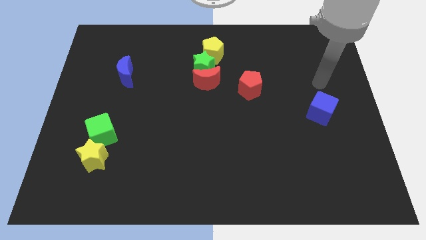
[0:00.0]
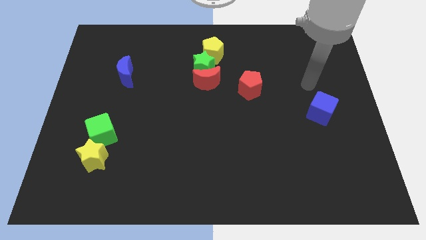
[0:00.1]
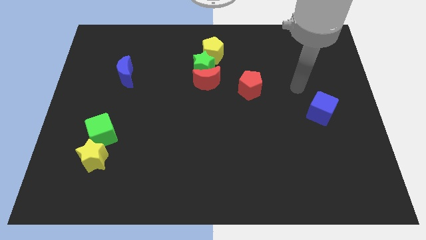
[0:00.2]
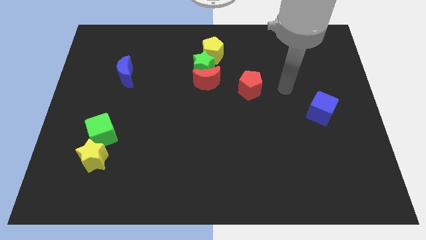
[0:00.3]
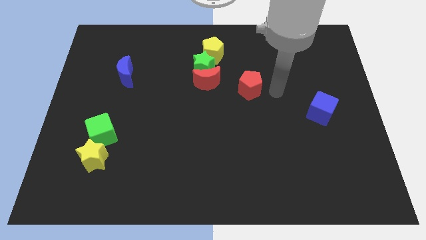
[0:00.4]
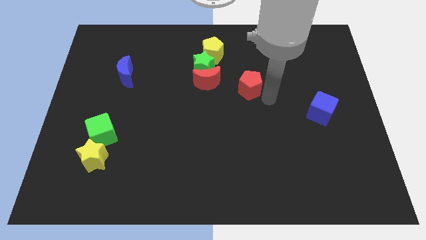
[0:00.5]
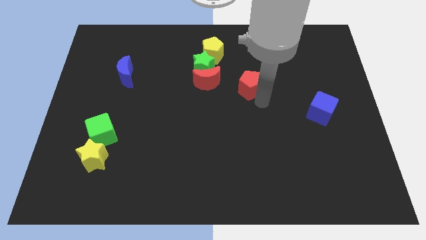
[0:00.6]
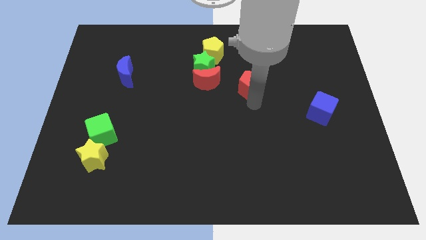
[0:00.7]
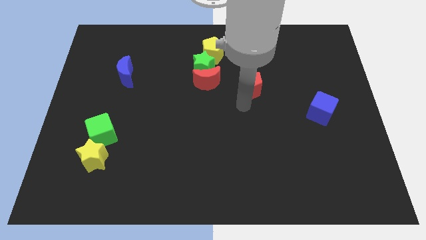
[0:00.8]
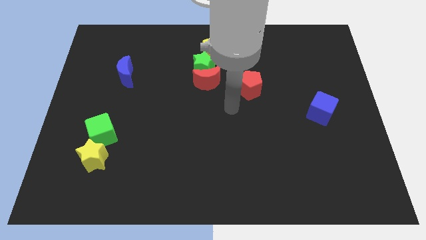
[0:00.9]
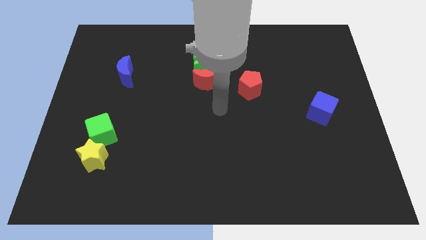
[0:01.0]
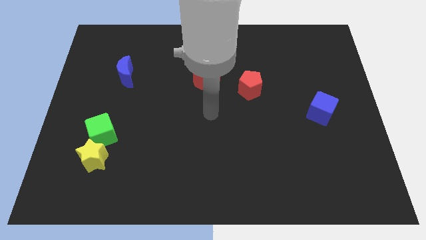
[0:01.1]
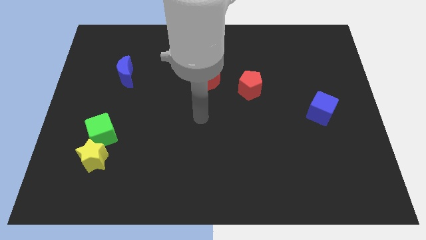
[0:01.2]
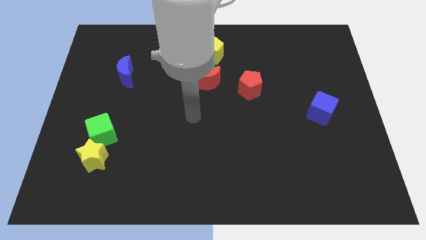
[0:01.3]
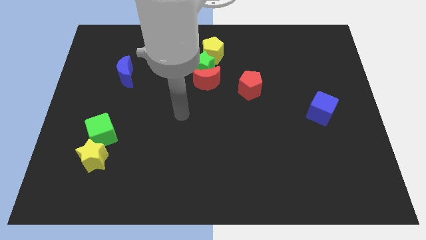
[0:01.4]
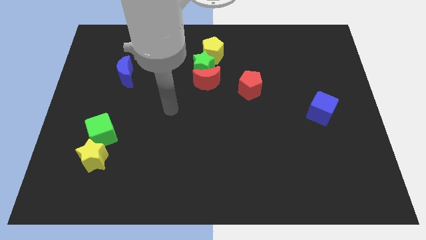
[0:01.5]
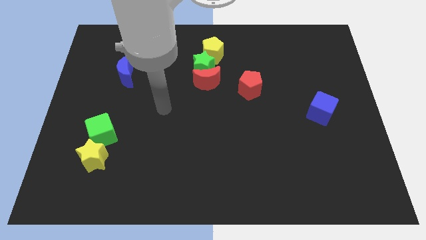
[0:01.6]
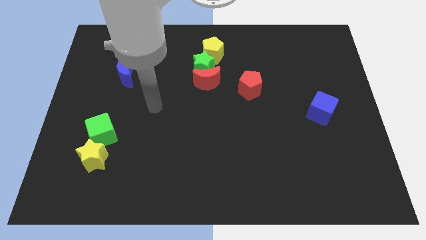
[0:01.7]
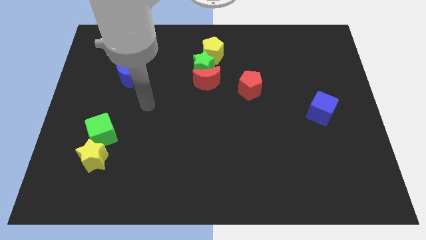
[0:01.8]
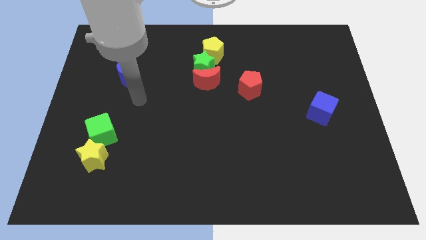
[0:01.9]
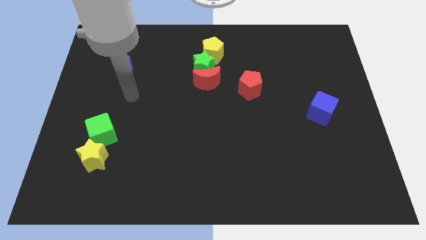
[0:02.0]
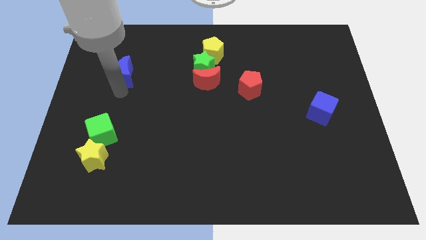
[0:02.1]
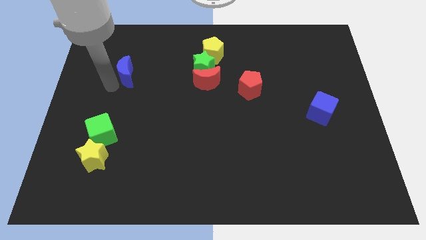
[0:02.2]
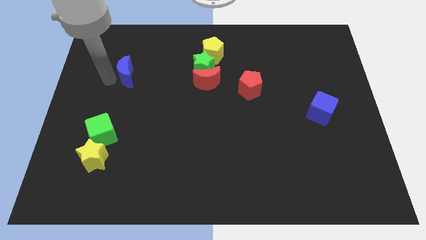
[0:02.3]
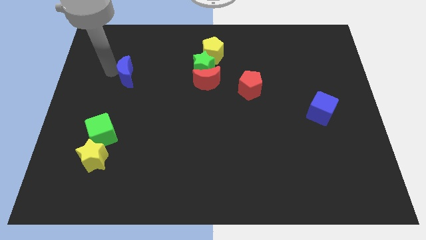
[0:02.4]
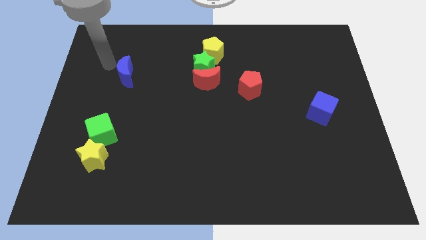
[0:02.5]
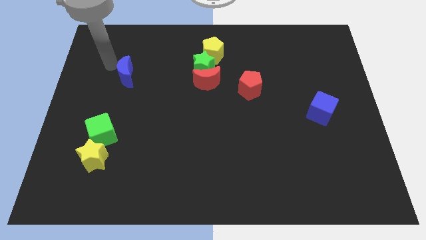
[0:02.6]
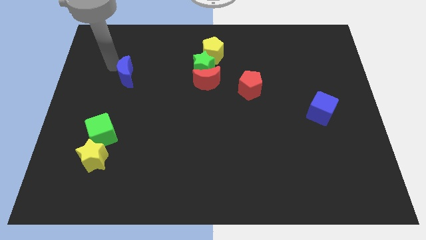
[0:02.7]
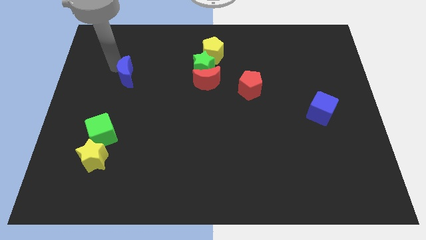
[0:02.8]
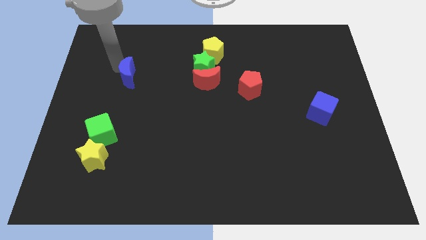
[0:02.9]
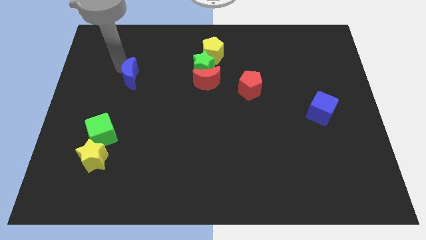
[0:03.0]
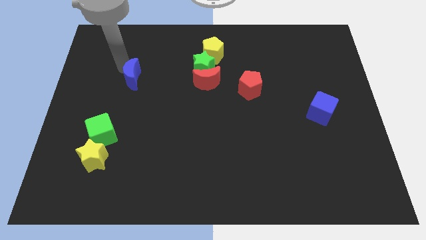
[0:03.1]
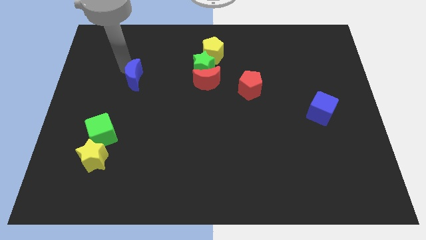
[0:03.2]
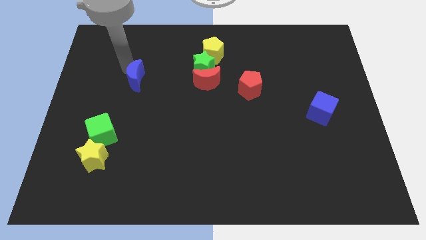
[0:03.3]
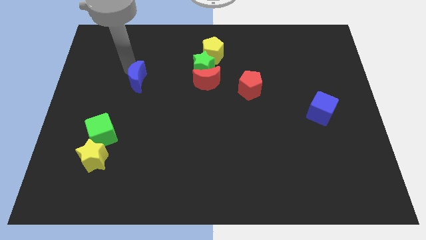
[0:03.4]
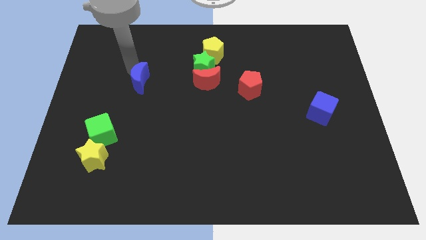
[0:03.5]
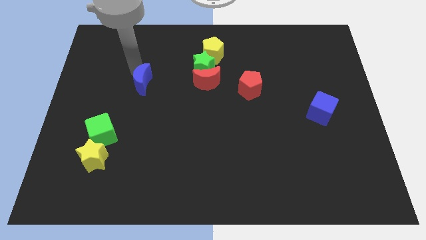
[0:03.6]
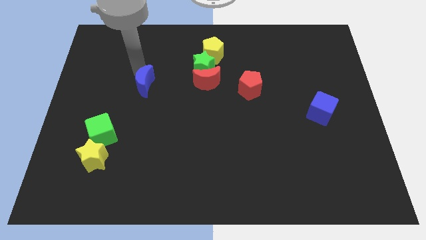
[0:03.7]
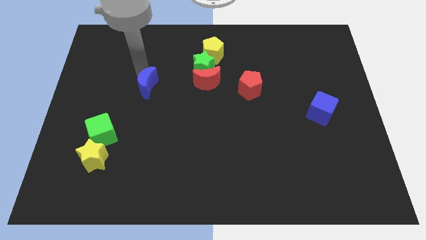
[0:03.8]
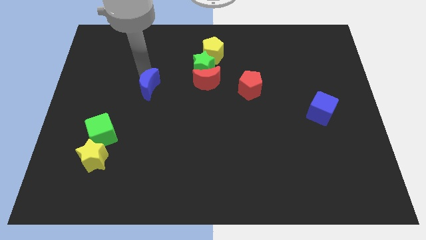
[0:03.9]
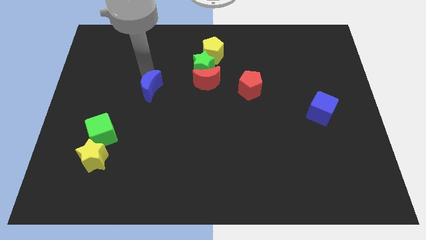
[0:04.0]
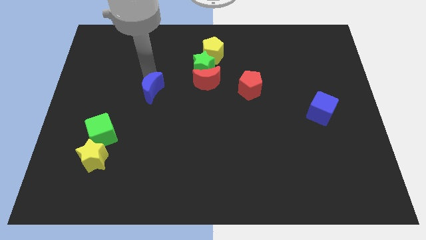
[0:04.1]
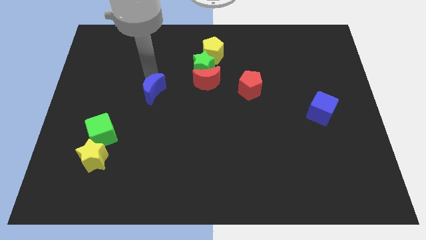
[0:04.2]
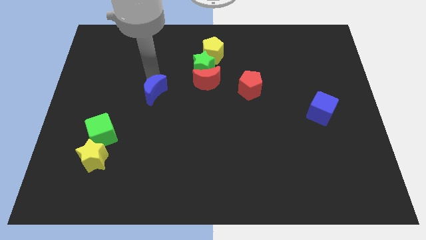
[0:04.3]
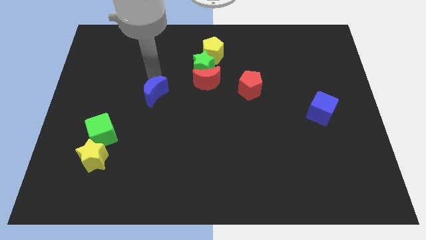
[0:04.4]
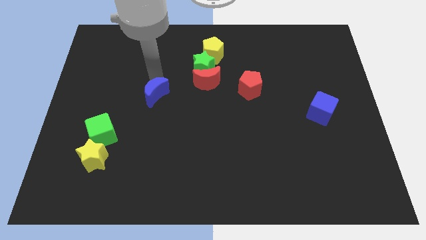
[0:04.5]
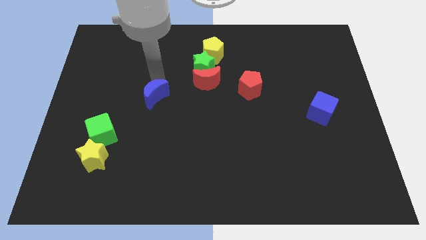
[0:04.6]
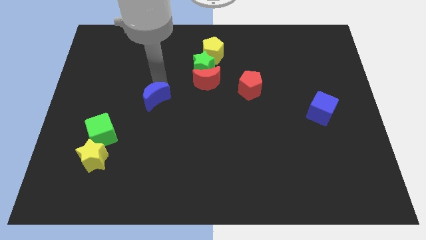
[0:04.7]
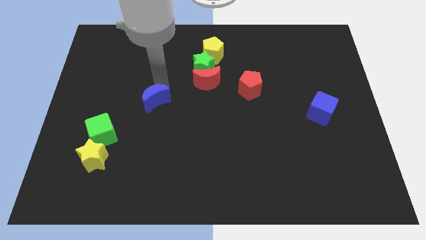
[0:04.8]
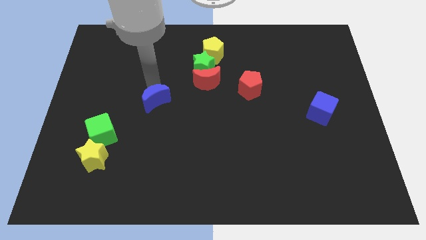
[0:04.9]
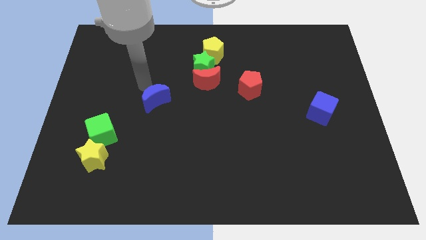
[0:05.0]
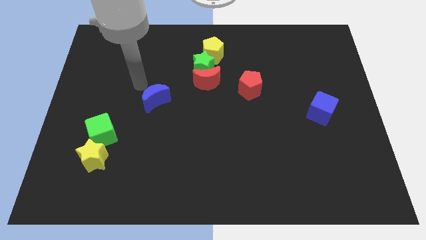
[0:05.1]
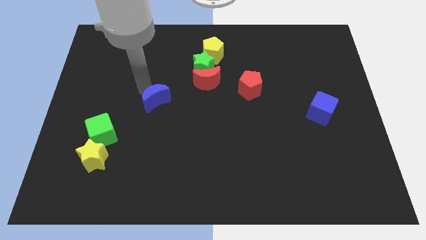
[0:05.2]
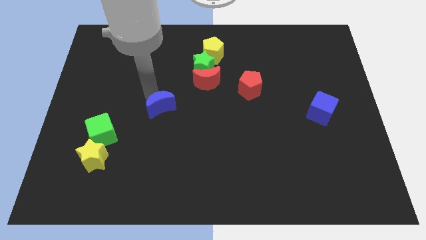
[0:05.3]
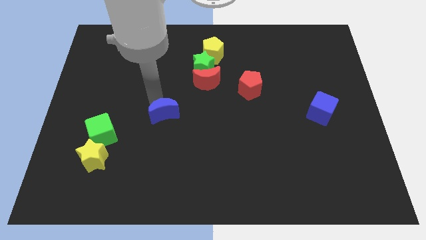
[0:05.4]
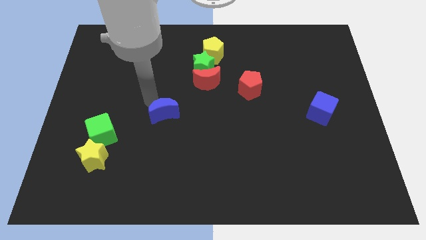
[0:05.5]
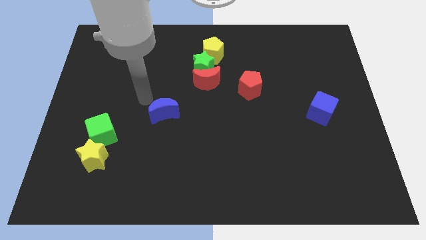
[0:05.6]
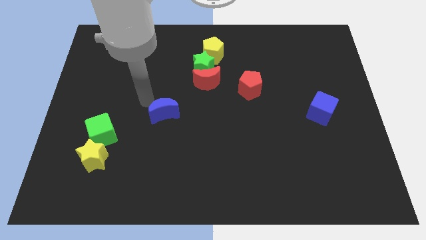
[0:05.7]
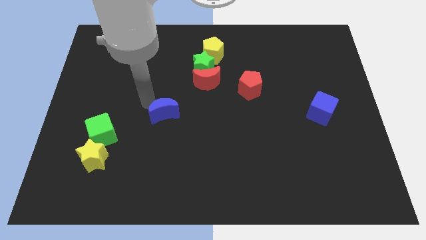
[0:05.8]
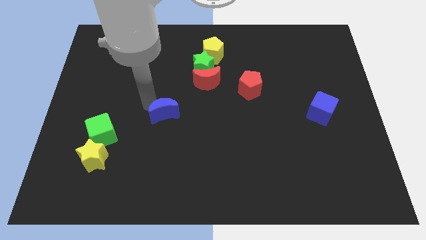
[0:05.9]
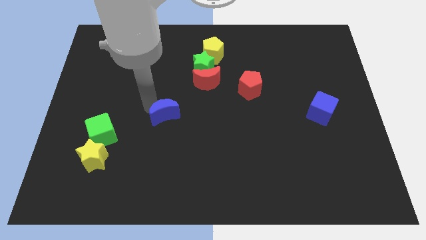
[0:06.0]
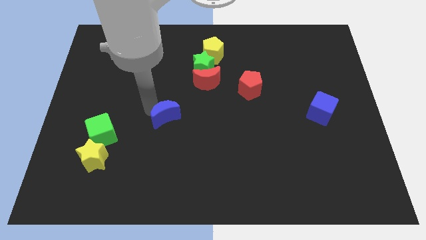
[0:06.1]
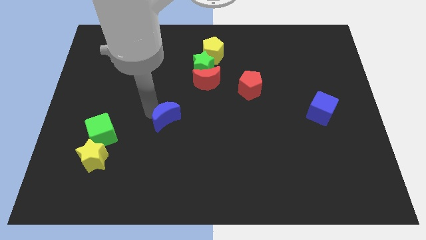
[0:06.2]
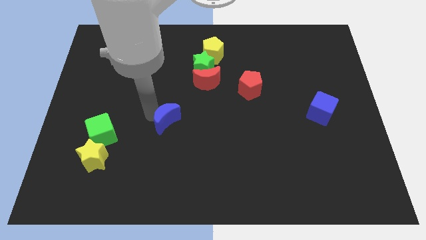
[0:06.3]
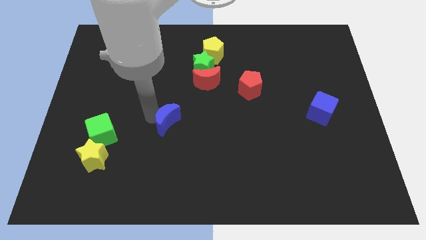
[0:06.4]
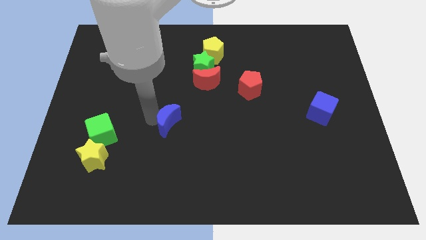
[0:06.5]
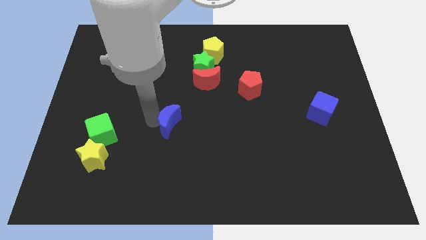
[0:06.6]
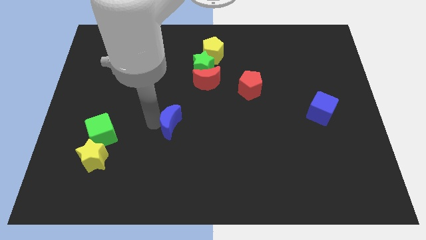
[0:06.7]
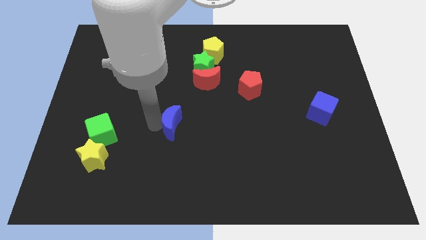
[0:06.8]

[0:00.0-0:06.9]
slide the blue moon downwards and then to the right

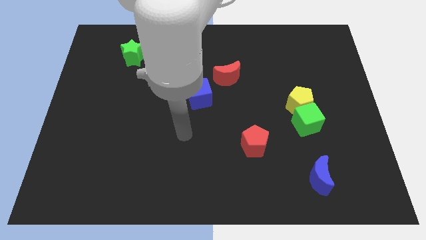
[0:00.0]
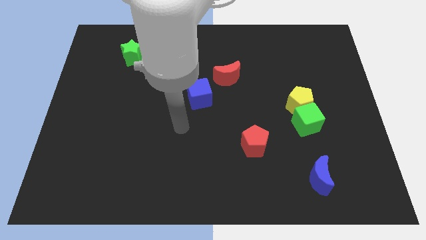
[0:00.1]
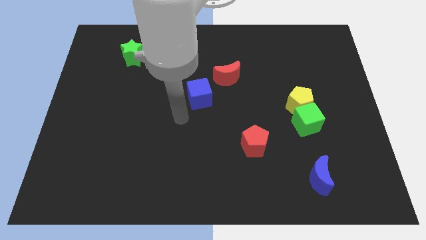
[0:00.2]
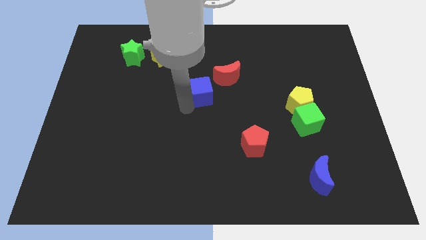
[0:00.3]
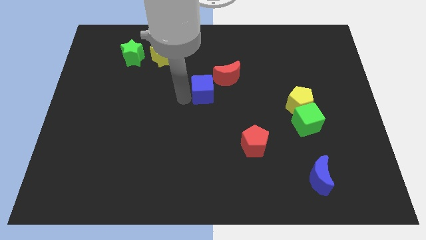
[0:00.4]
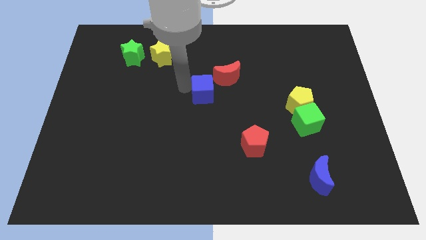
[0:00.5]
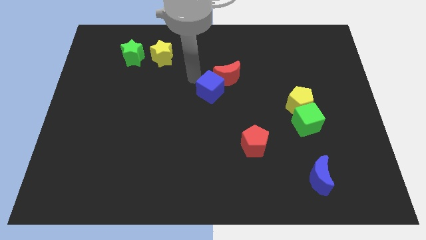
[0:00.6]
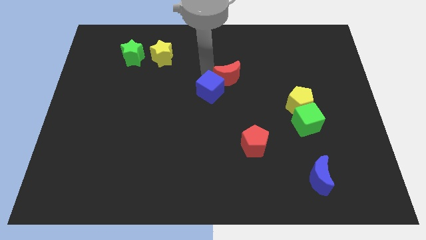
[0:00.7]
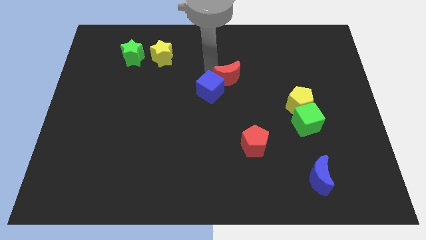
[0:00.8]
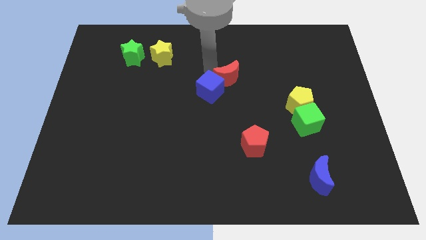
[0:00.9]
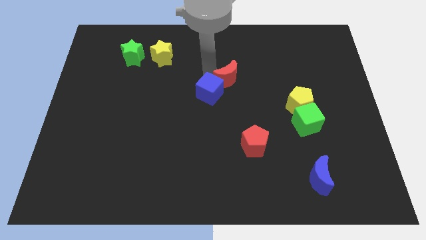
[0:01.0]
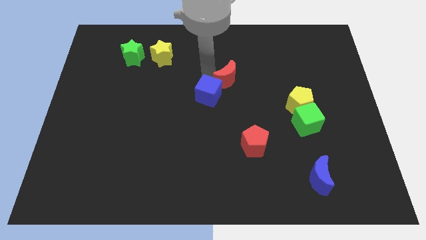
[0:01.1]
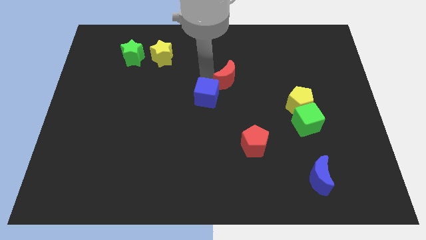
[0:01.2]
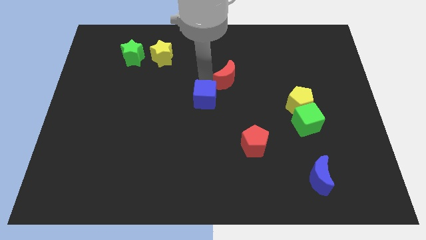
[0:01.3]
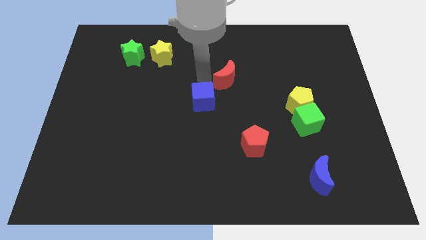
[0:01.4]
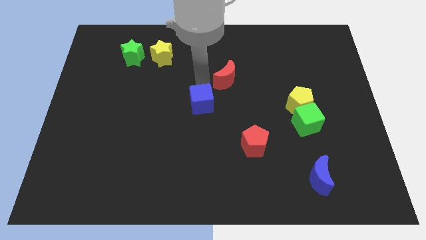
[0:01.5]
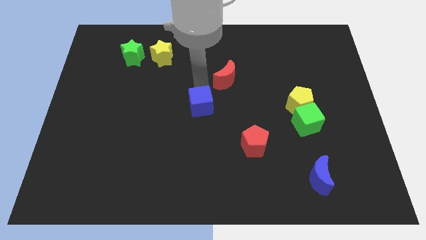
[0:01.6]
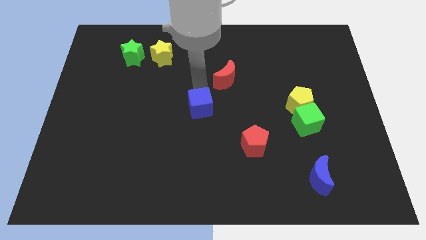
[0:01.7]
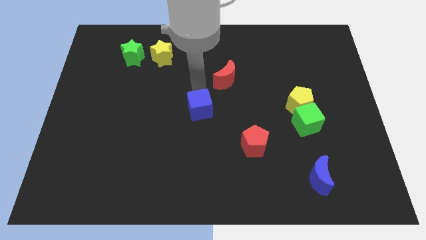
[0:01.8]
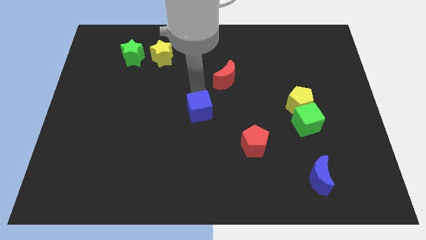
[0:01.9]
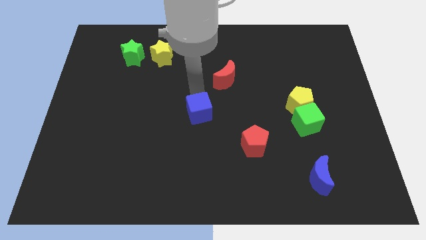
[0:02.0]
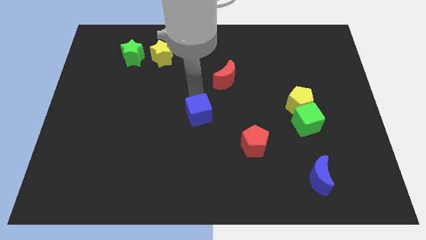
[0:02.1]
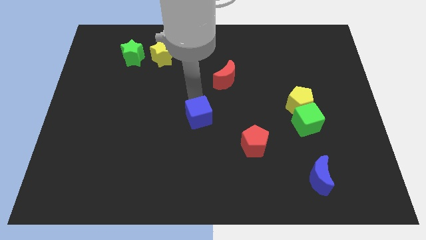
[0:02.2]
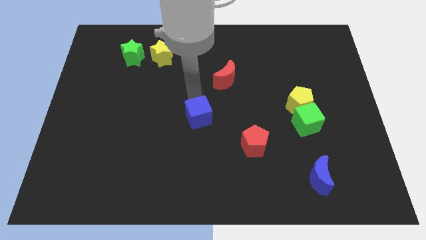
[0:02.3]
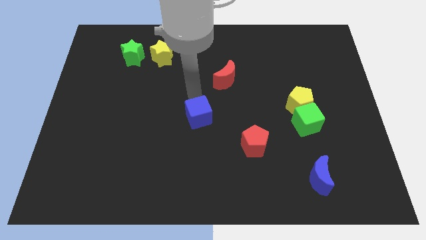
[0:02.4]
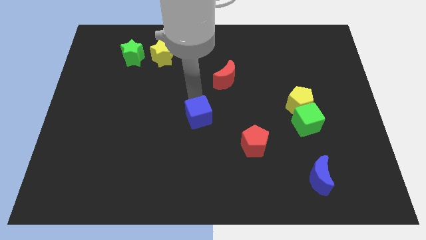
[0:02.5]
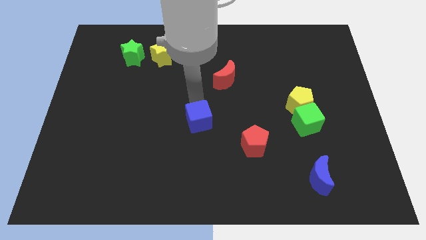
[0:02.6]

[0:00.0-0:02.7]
move the blue cube somewhat down
